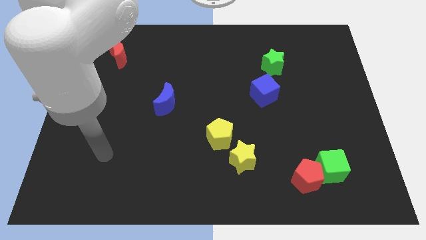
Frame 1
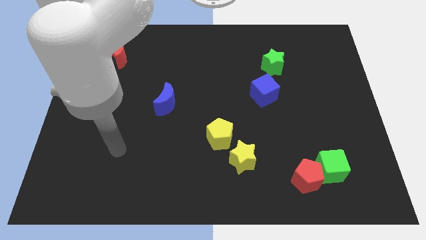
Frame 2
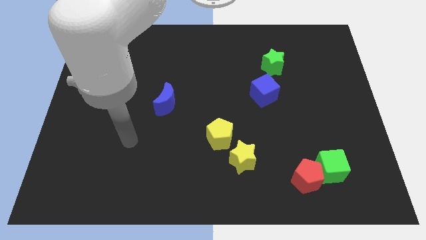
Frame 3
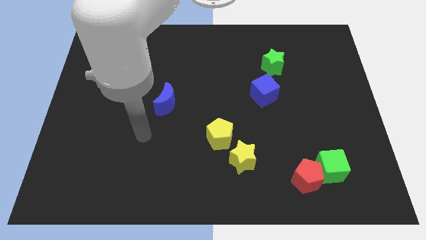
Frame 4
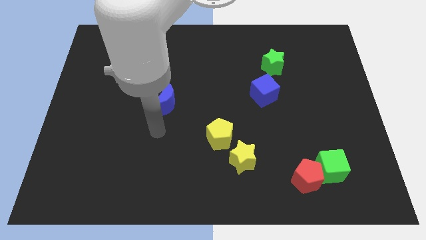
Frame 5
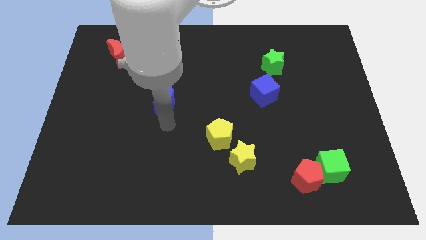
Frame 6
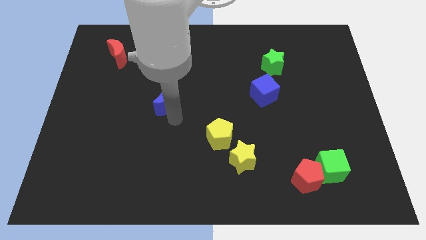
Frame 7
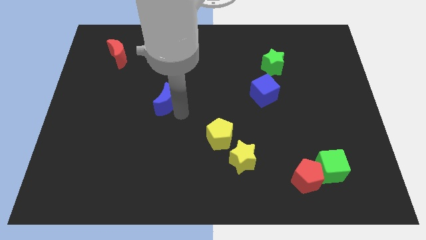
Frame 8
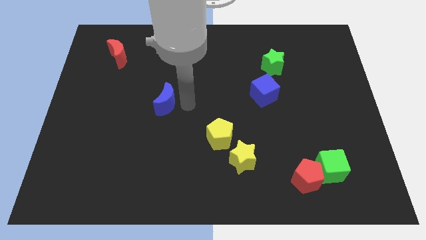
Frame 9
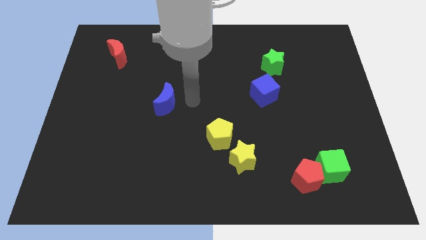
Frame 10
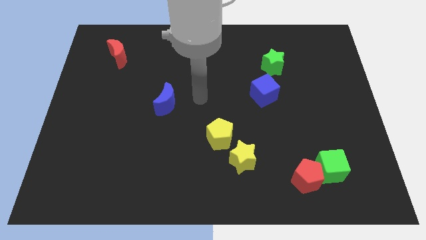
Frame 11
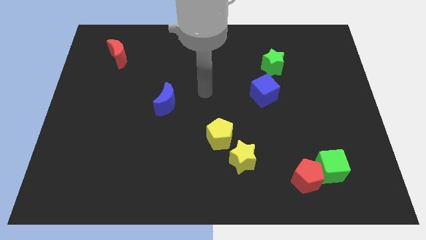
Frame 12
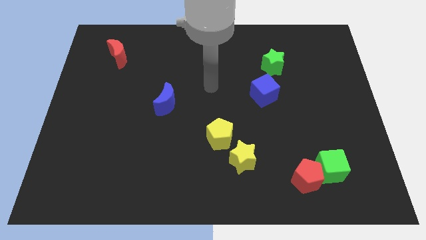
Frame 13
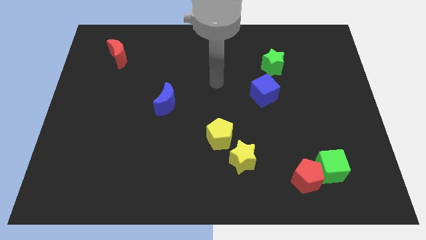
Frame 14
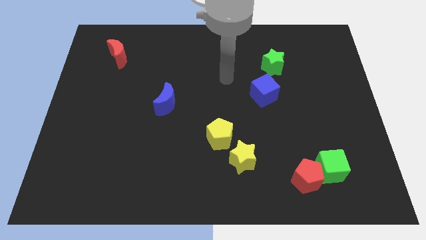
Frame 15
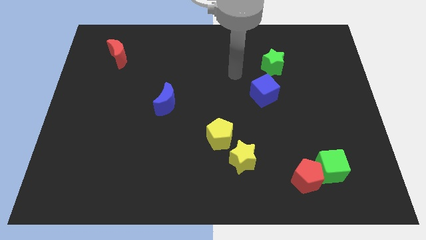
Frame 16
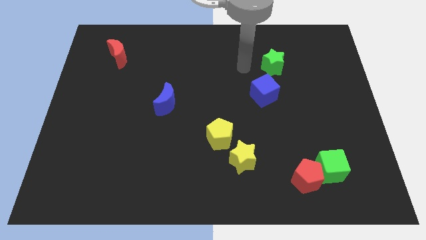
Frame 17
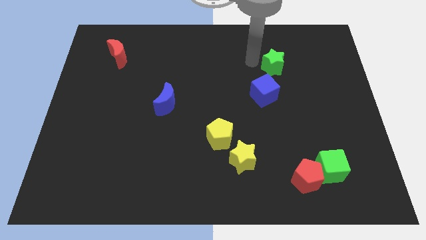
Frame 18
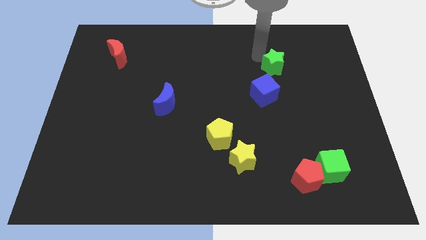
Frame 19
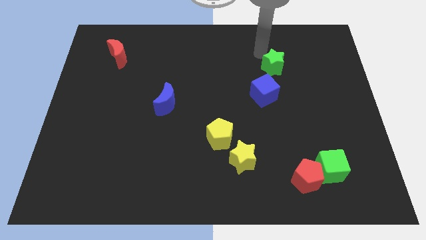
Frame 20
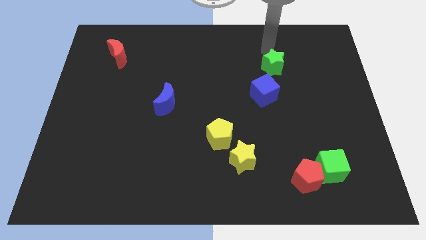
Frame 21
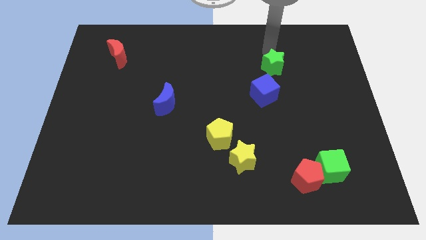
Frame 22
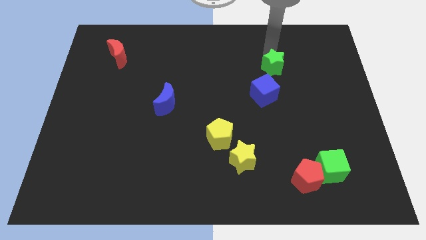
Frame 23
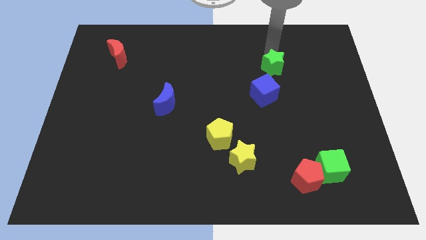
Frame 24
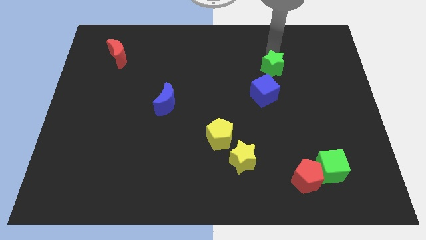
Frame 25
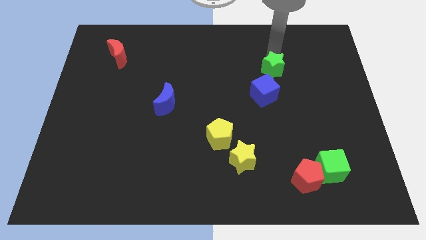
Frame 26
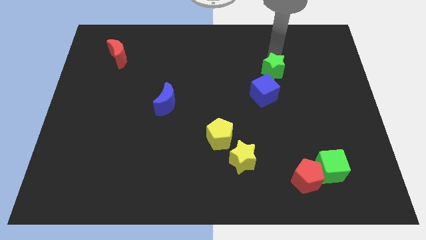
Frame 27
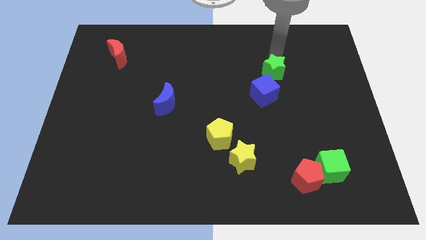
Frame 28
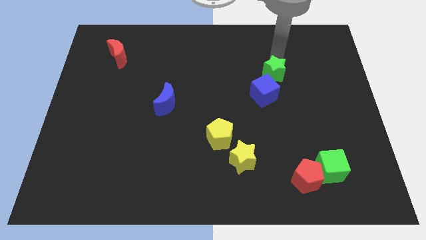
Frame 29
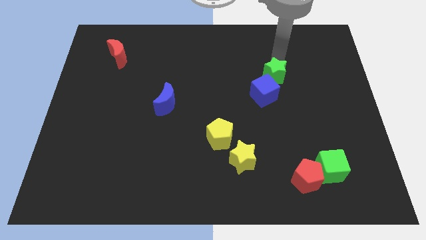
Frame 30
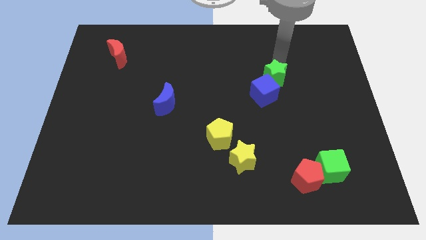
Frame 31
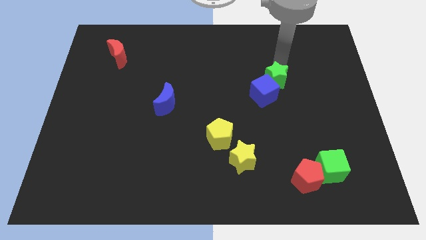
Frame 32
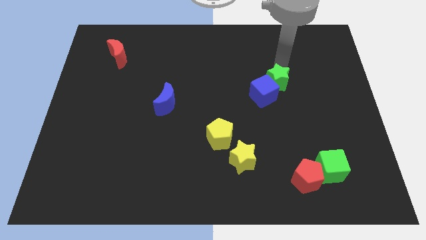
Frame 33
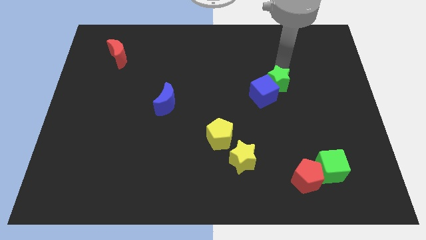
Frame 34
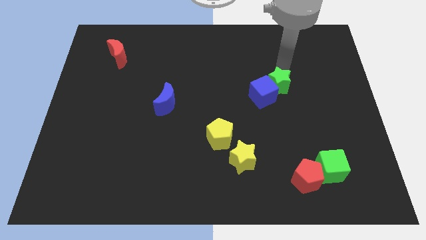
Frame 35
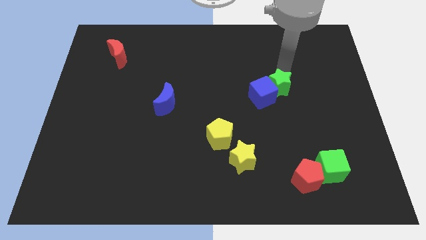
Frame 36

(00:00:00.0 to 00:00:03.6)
move the green star down slightly

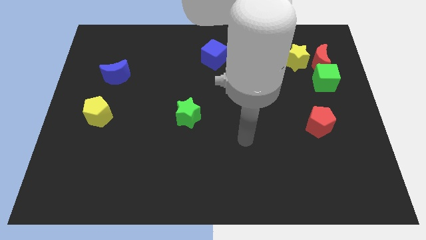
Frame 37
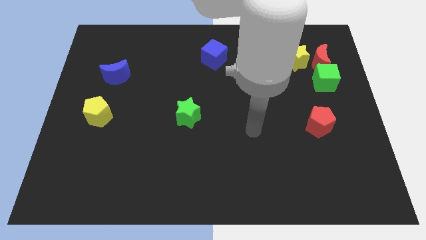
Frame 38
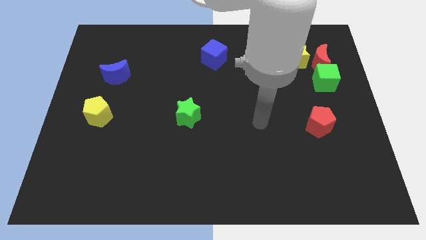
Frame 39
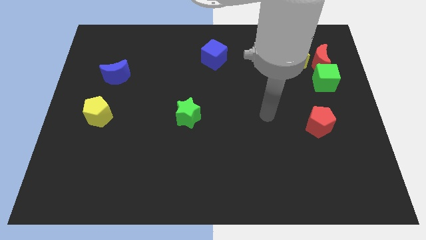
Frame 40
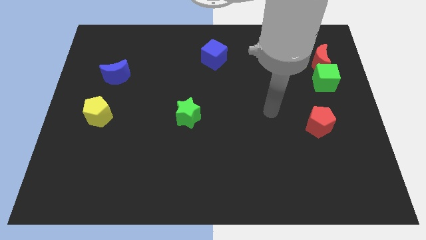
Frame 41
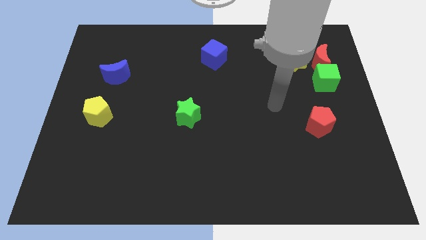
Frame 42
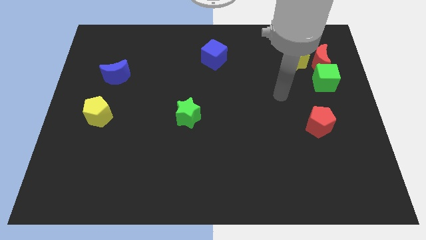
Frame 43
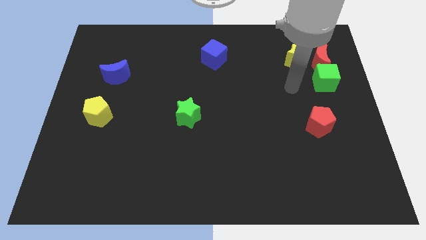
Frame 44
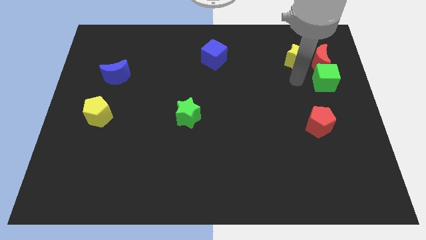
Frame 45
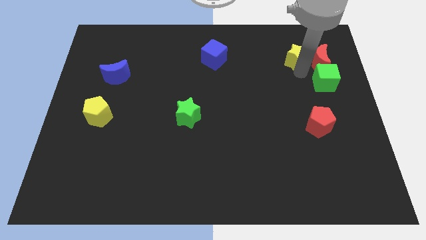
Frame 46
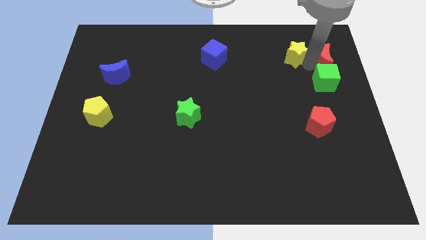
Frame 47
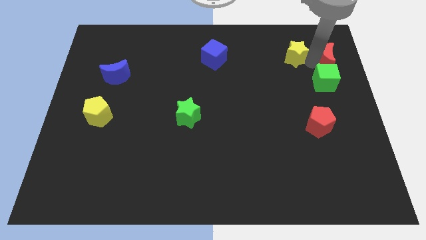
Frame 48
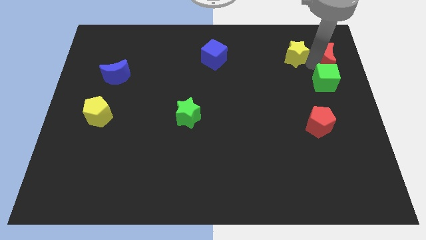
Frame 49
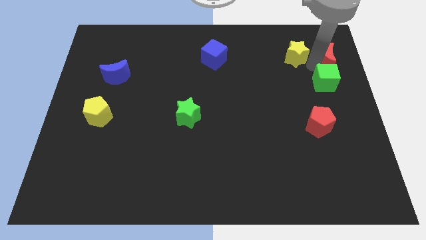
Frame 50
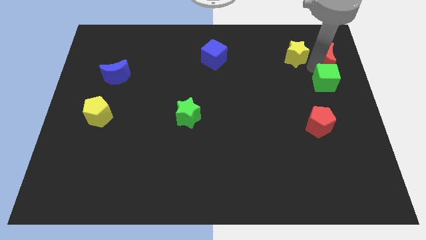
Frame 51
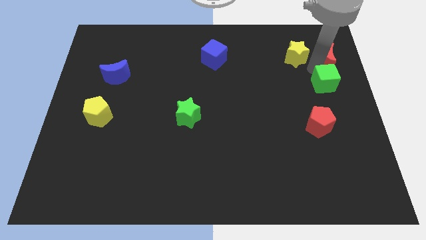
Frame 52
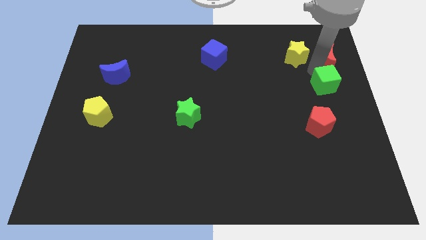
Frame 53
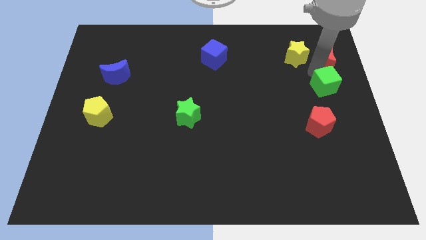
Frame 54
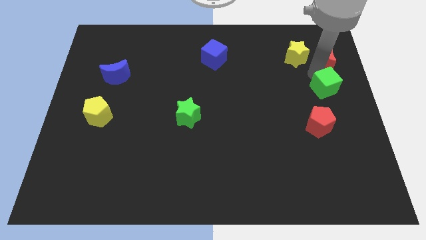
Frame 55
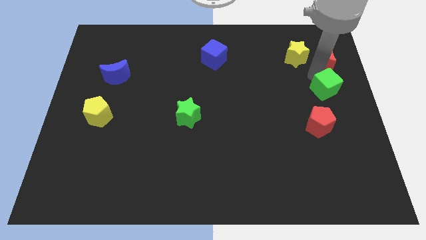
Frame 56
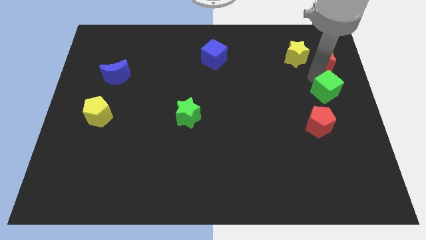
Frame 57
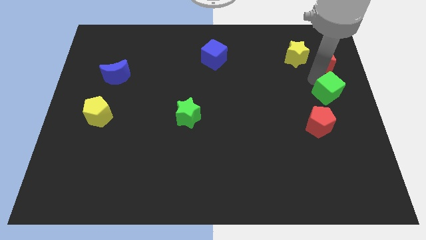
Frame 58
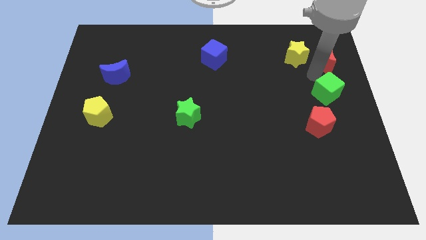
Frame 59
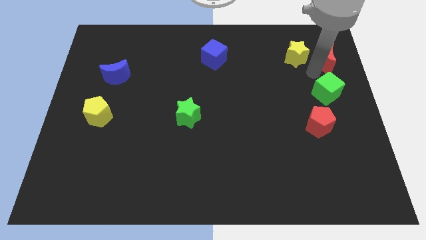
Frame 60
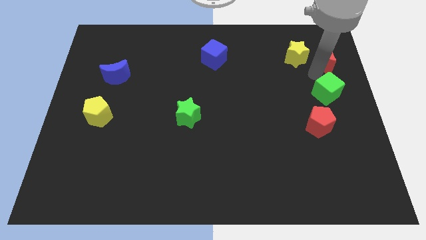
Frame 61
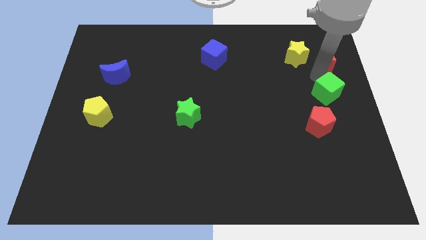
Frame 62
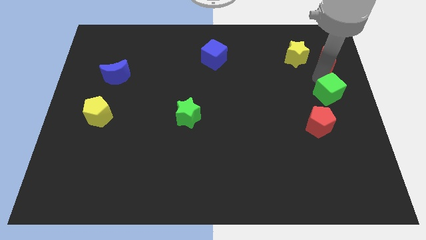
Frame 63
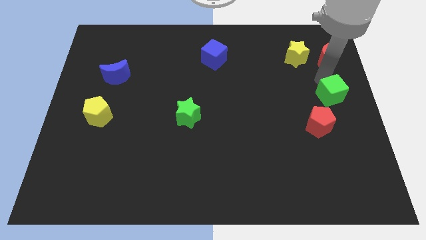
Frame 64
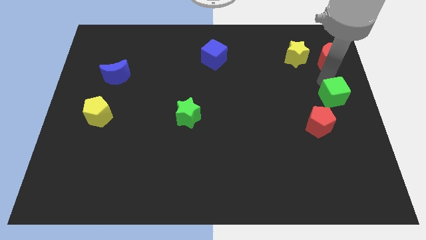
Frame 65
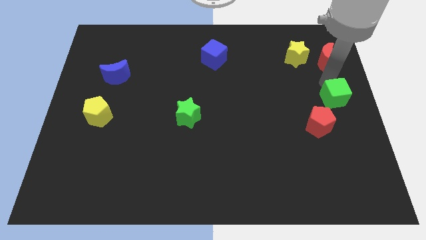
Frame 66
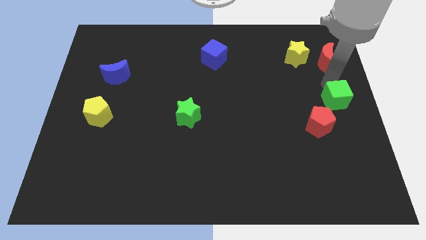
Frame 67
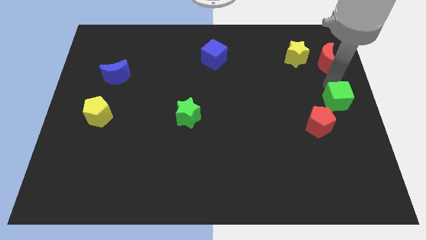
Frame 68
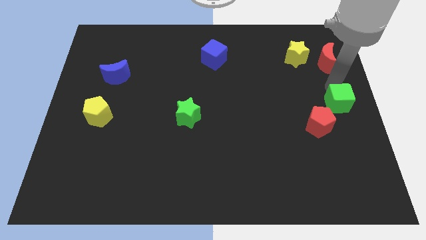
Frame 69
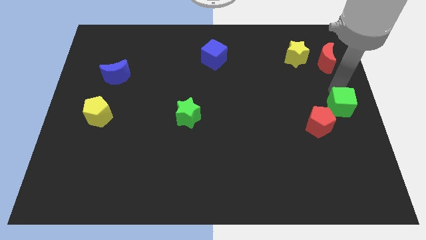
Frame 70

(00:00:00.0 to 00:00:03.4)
push the green cube slightly down

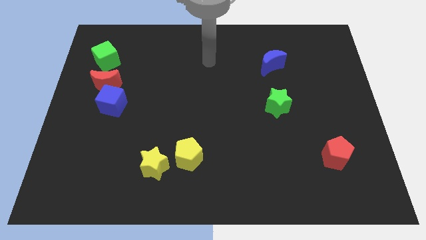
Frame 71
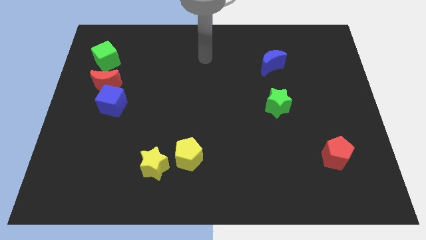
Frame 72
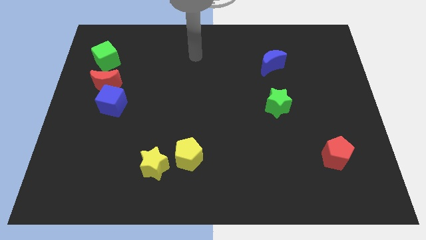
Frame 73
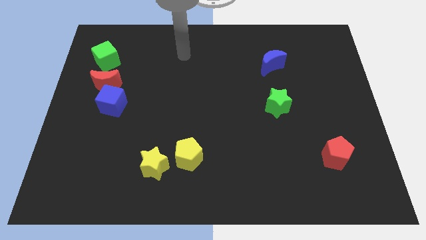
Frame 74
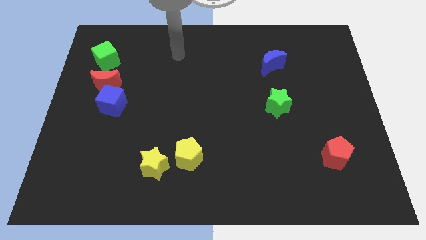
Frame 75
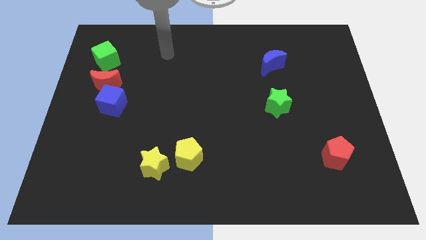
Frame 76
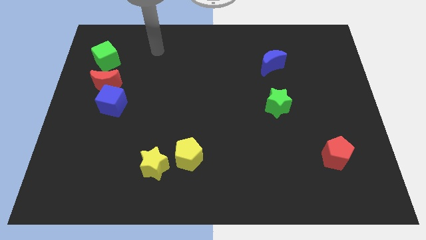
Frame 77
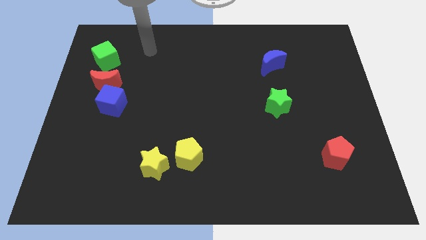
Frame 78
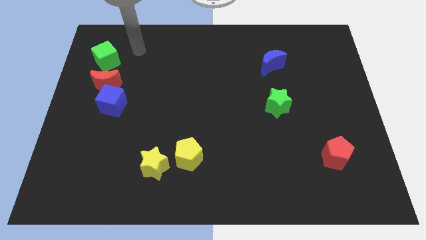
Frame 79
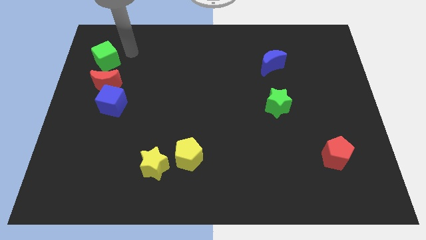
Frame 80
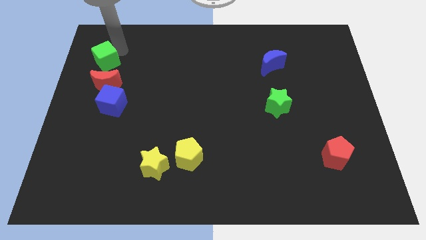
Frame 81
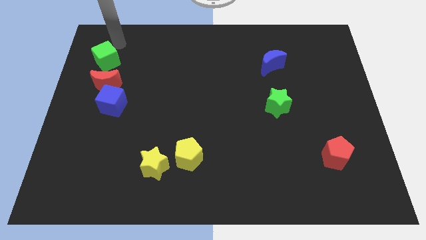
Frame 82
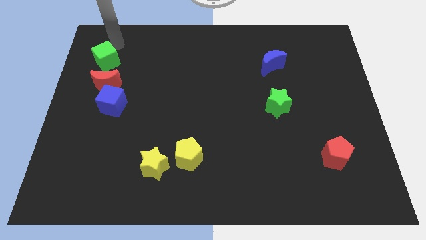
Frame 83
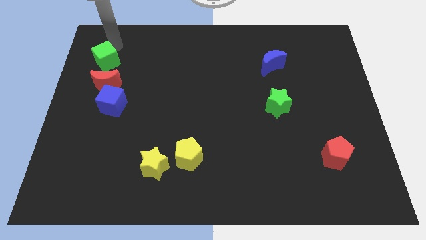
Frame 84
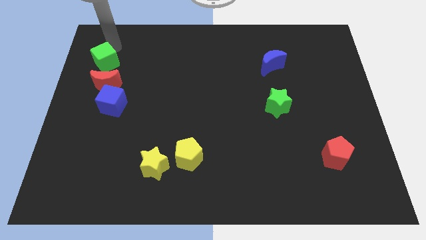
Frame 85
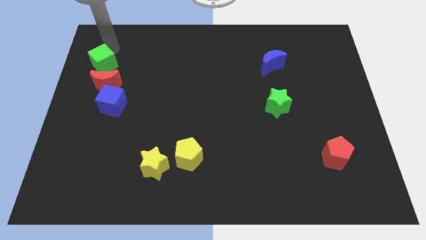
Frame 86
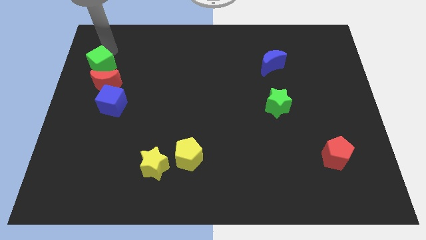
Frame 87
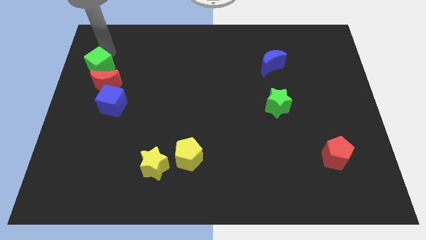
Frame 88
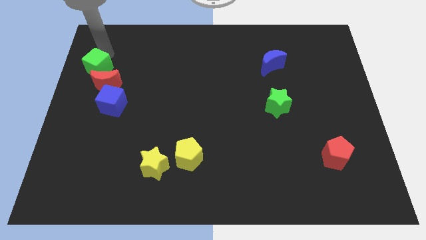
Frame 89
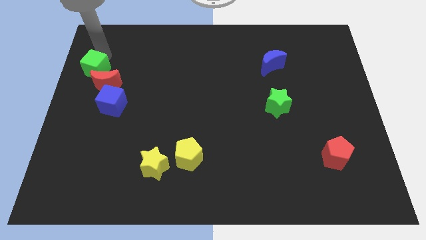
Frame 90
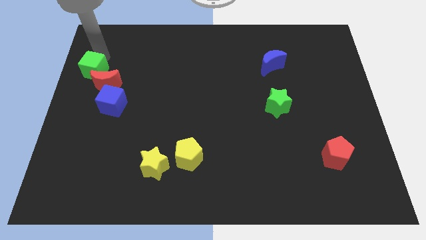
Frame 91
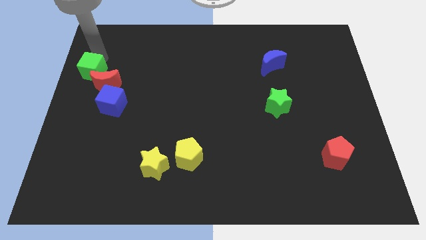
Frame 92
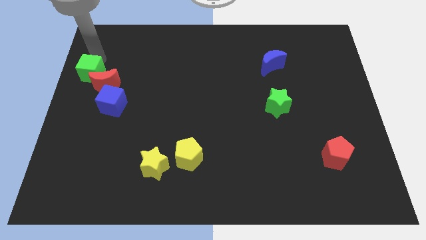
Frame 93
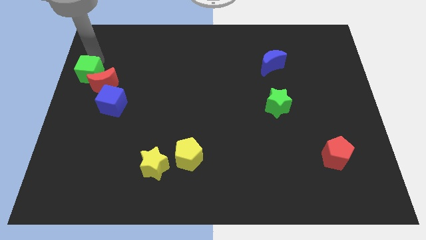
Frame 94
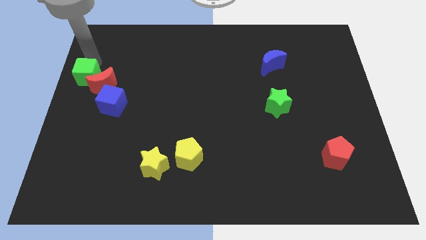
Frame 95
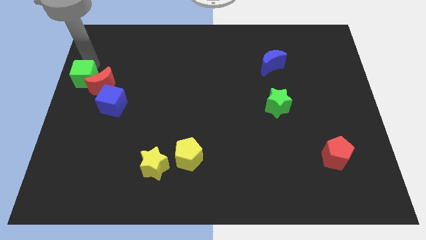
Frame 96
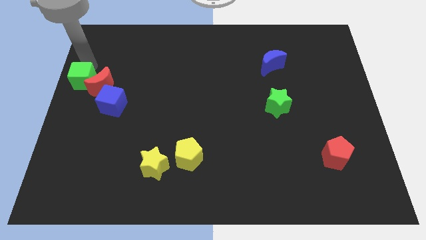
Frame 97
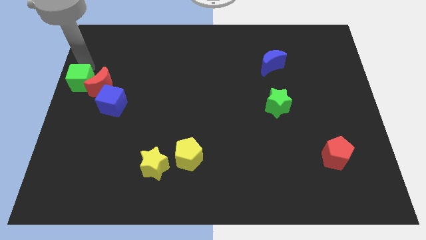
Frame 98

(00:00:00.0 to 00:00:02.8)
slide the green cube down a little bit
